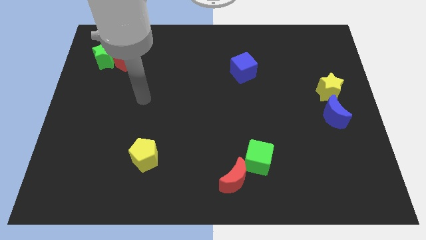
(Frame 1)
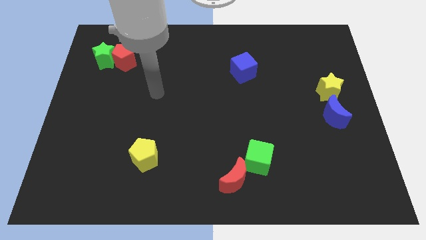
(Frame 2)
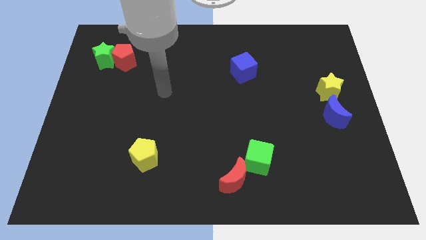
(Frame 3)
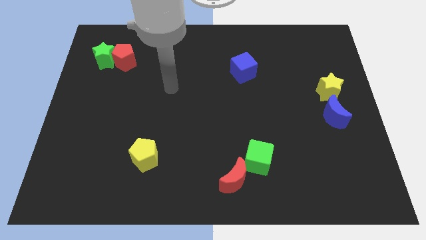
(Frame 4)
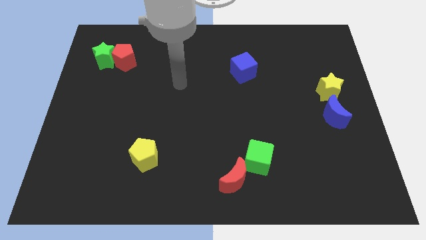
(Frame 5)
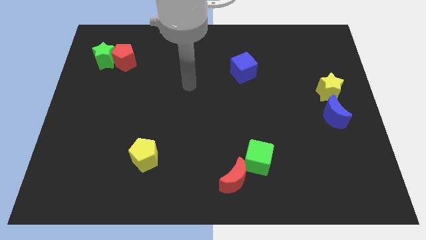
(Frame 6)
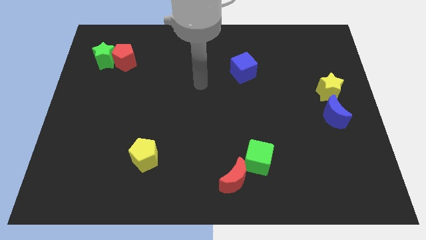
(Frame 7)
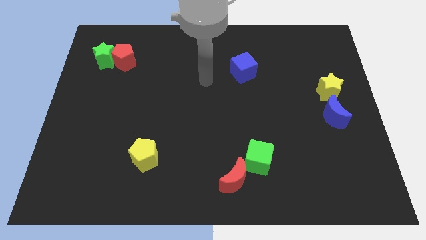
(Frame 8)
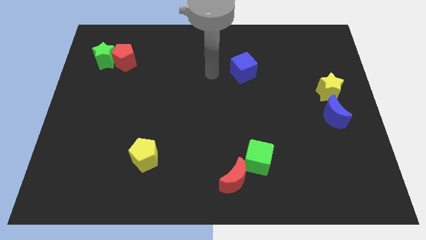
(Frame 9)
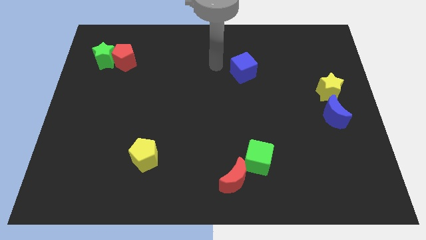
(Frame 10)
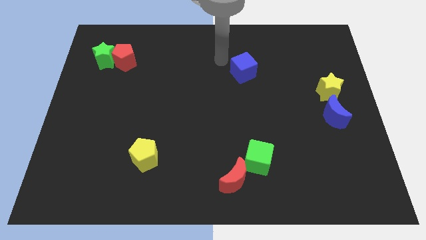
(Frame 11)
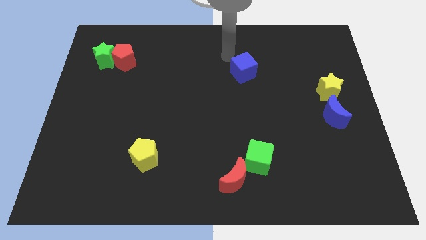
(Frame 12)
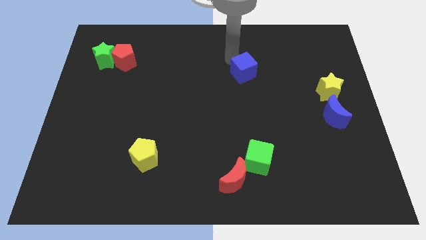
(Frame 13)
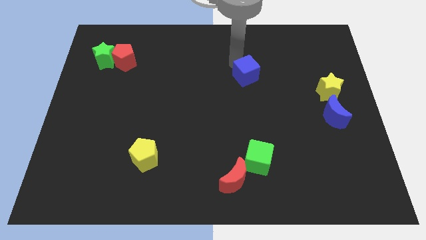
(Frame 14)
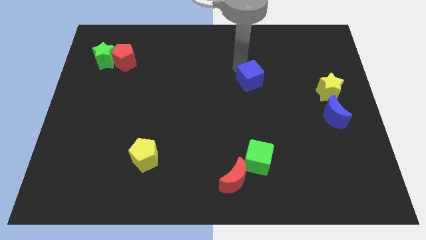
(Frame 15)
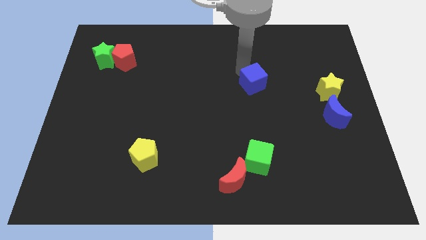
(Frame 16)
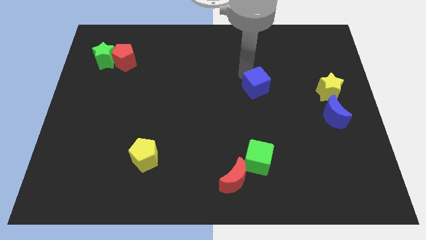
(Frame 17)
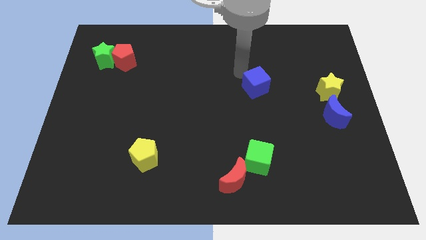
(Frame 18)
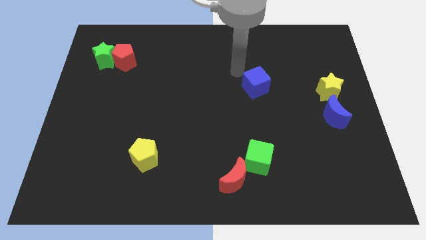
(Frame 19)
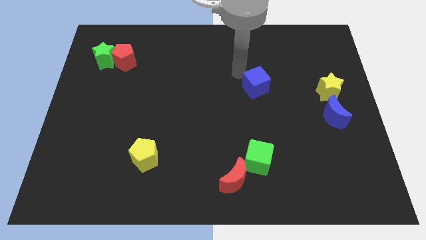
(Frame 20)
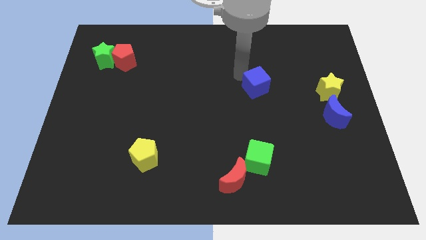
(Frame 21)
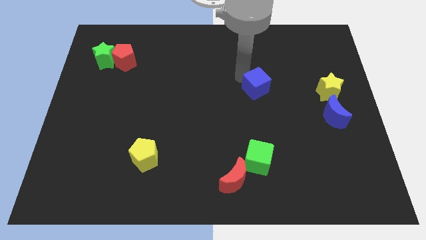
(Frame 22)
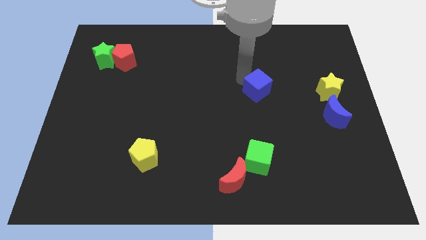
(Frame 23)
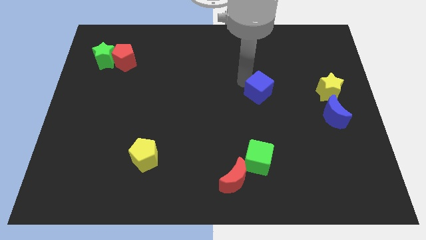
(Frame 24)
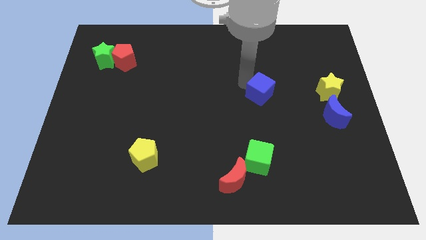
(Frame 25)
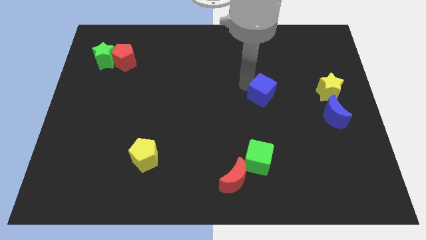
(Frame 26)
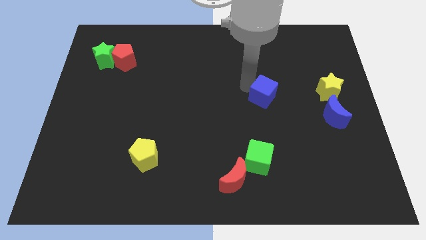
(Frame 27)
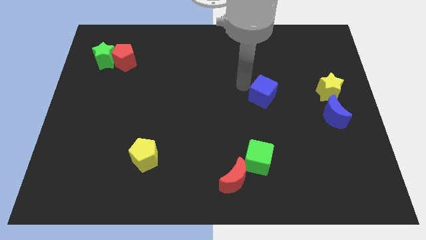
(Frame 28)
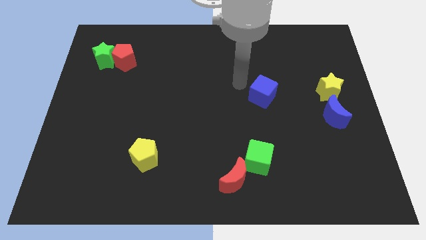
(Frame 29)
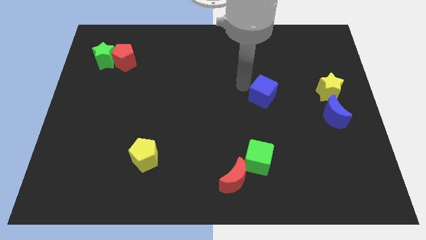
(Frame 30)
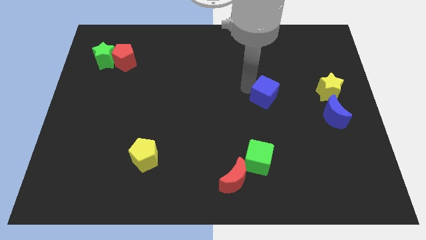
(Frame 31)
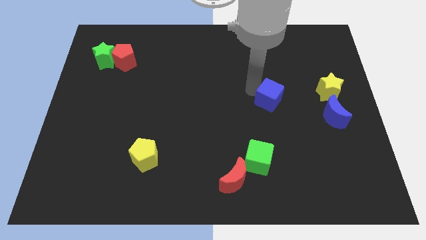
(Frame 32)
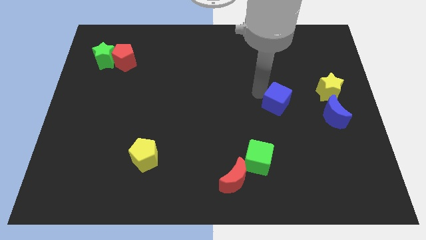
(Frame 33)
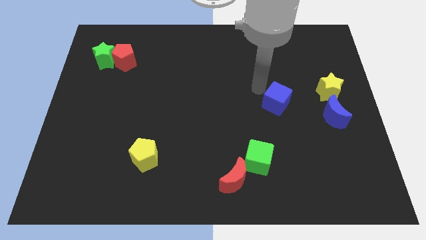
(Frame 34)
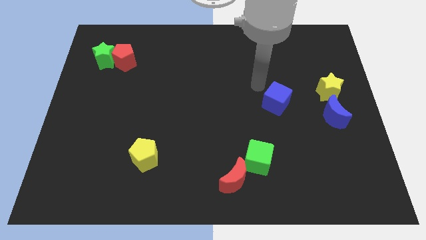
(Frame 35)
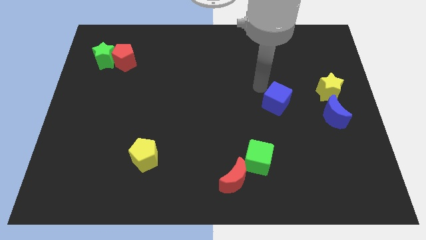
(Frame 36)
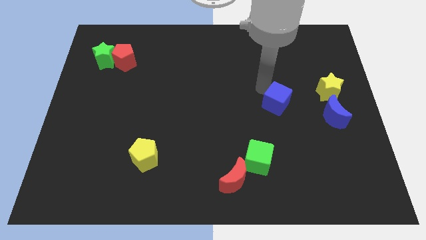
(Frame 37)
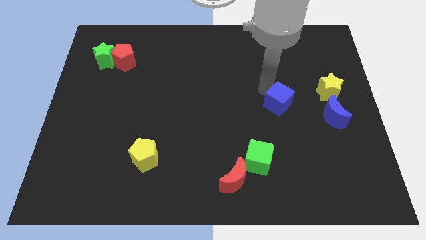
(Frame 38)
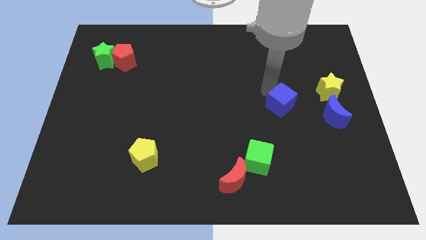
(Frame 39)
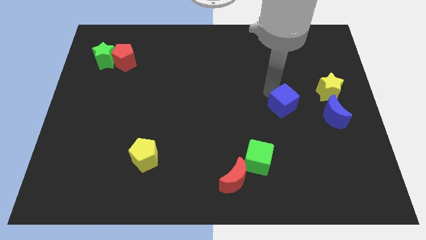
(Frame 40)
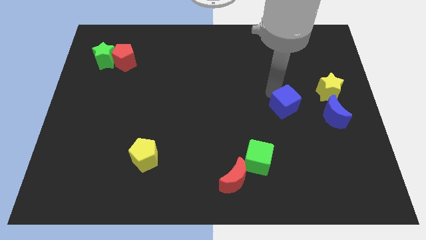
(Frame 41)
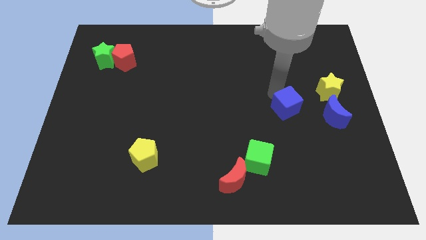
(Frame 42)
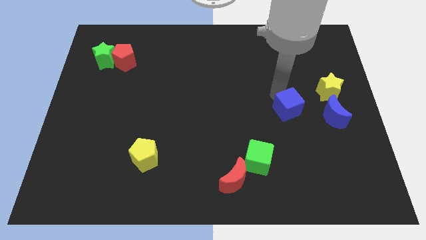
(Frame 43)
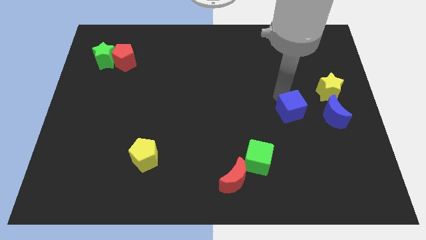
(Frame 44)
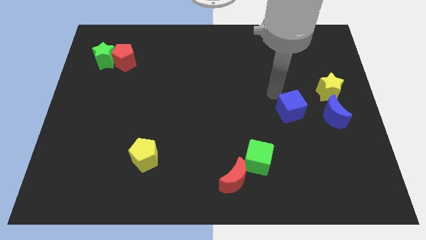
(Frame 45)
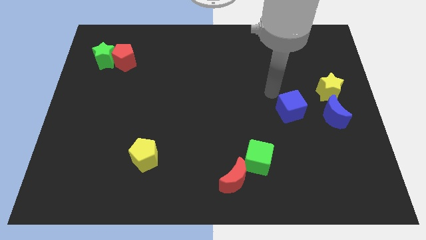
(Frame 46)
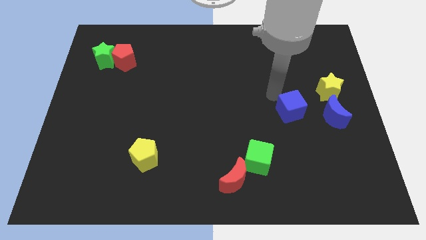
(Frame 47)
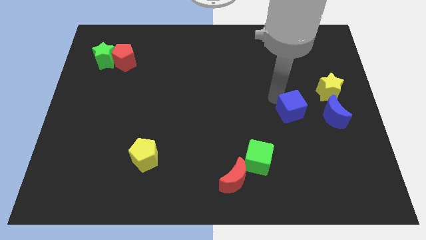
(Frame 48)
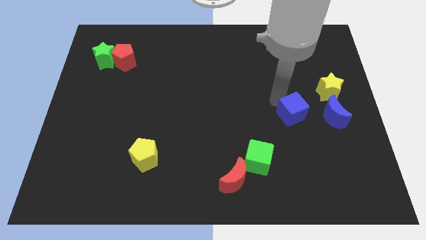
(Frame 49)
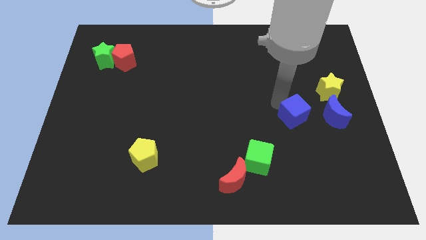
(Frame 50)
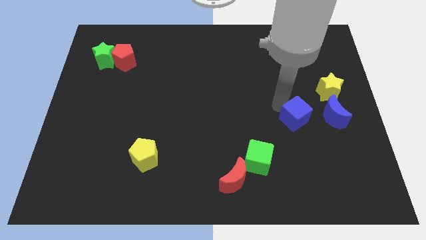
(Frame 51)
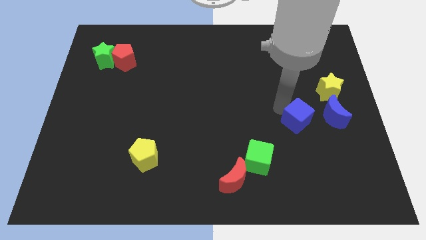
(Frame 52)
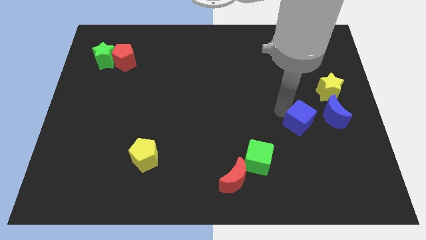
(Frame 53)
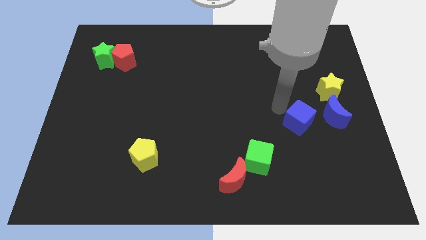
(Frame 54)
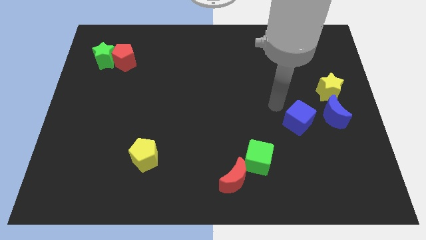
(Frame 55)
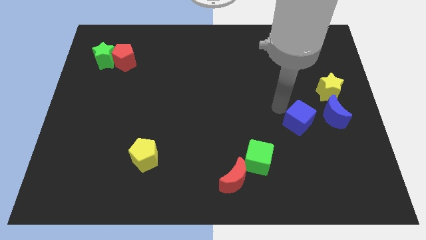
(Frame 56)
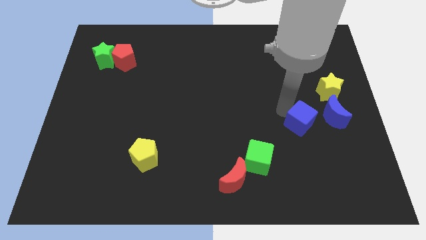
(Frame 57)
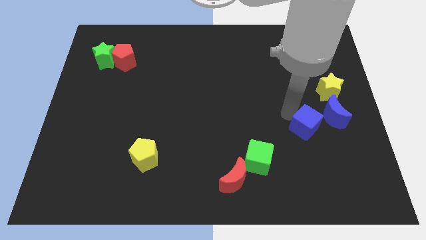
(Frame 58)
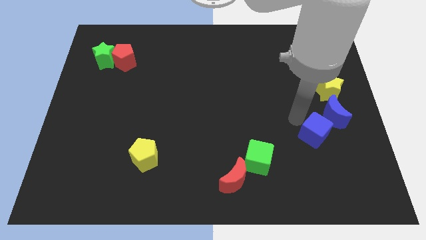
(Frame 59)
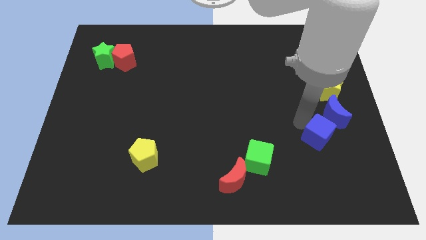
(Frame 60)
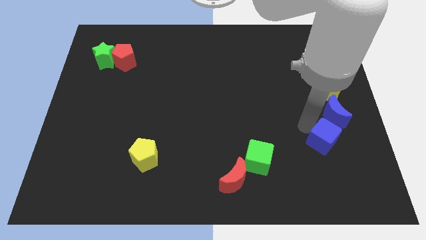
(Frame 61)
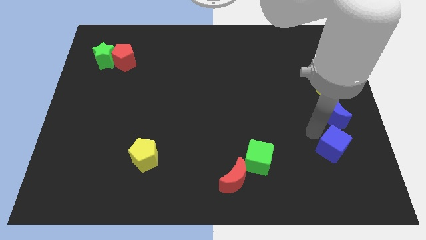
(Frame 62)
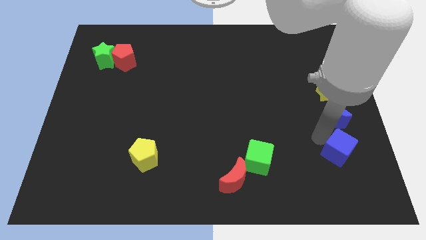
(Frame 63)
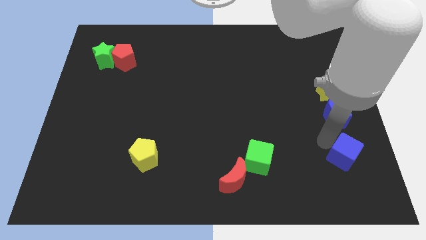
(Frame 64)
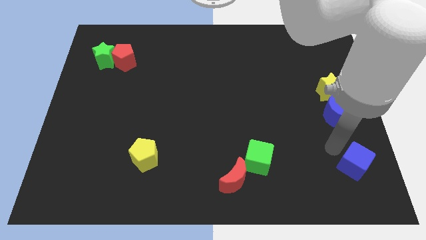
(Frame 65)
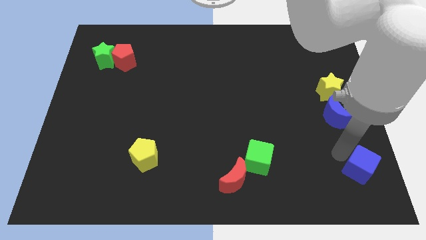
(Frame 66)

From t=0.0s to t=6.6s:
push the blue cube to the bottom right

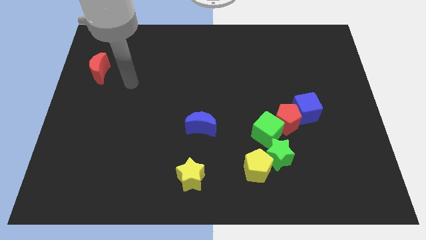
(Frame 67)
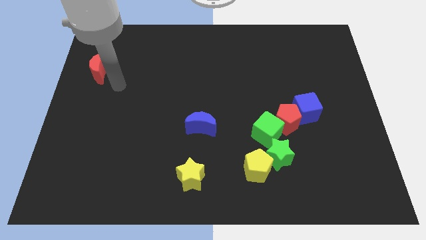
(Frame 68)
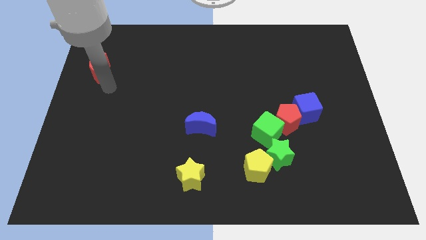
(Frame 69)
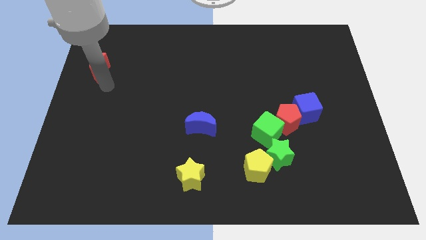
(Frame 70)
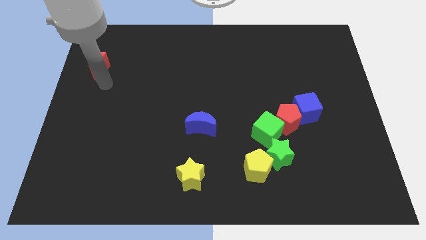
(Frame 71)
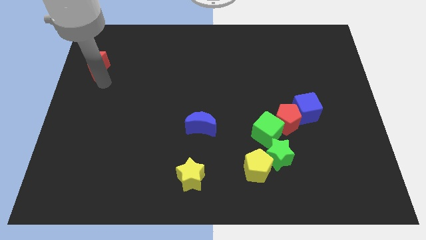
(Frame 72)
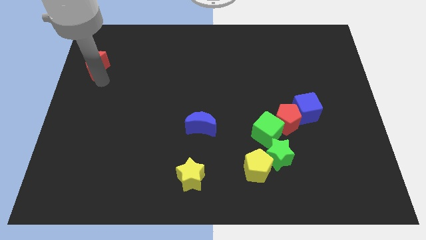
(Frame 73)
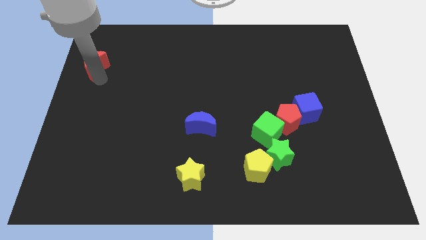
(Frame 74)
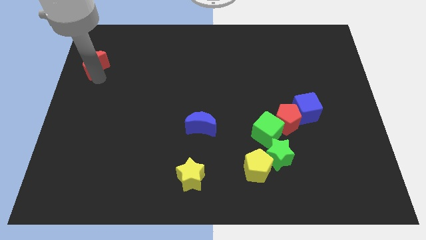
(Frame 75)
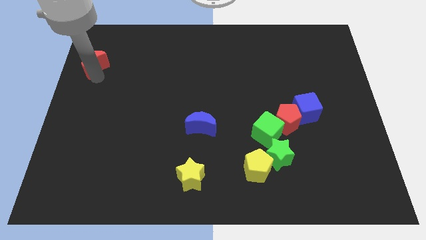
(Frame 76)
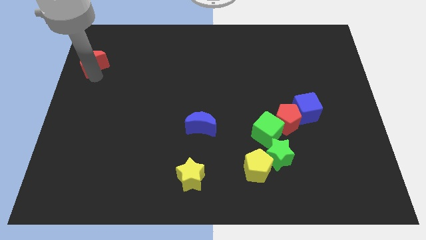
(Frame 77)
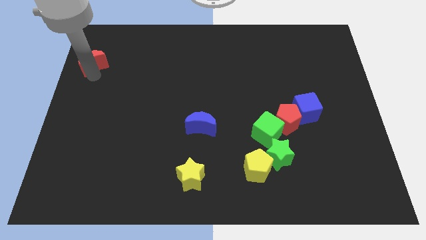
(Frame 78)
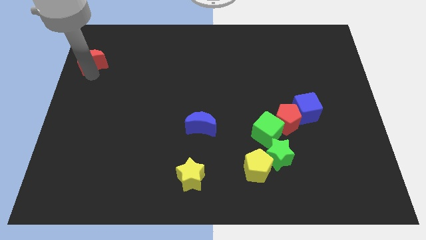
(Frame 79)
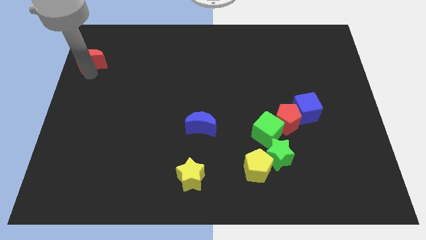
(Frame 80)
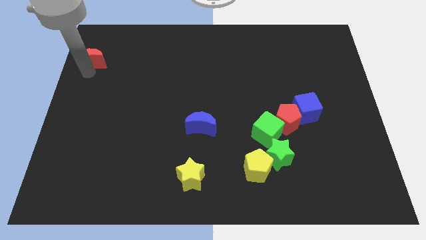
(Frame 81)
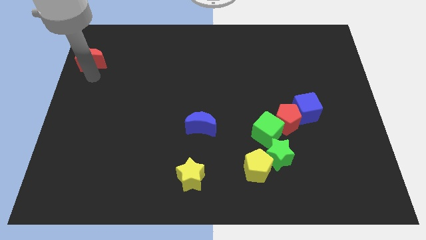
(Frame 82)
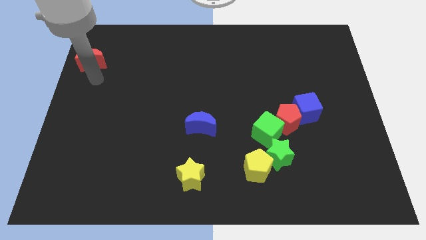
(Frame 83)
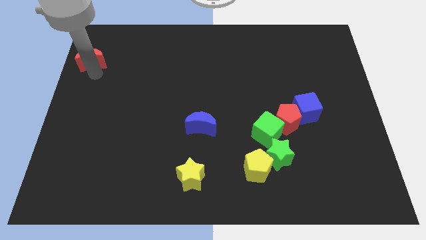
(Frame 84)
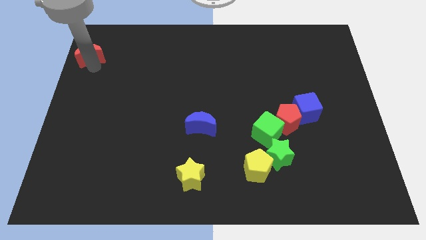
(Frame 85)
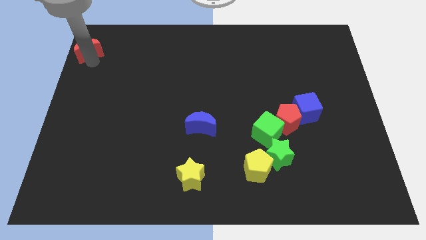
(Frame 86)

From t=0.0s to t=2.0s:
push the red moon to the upper left corner
